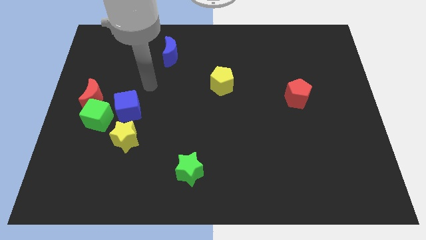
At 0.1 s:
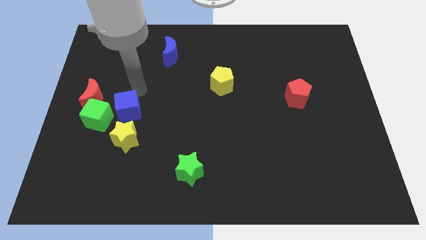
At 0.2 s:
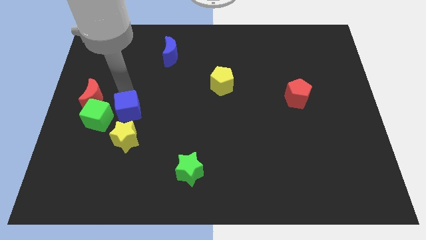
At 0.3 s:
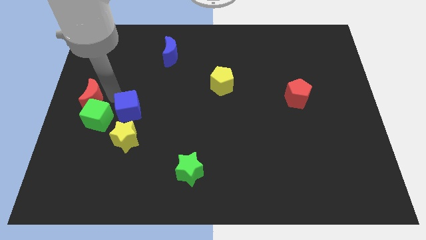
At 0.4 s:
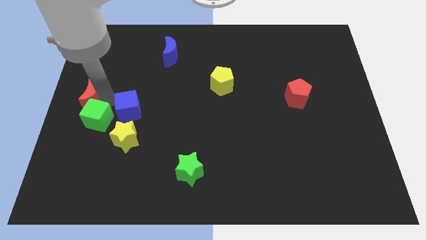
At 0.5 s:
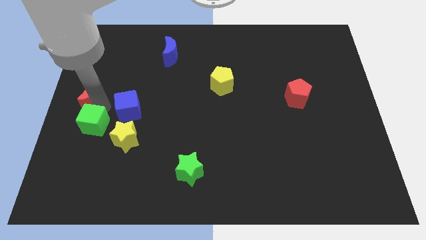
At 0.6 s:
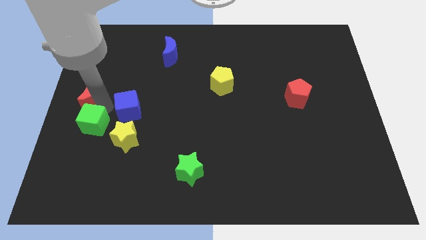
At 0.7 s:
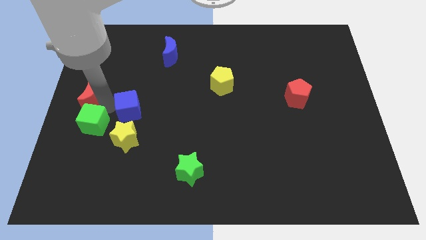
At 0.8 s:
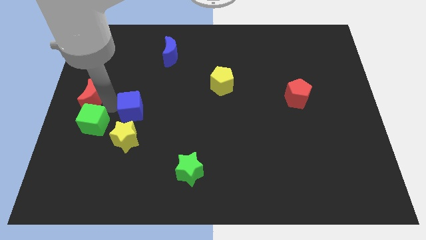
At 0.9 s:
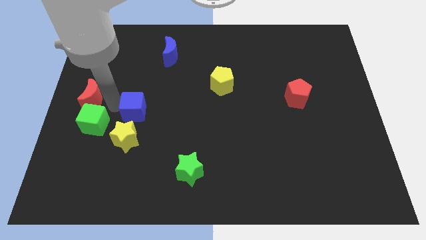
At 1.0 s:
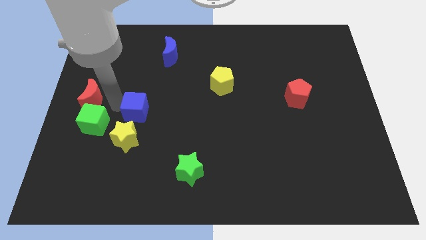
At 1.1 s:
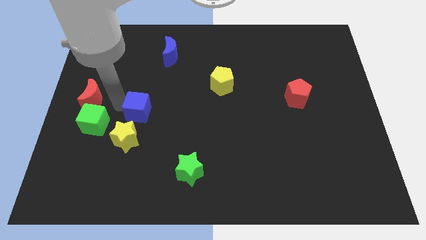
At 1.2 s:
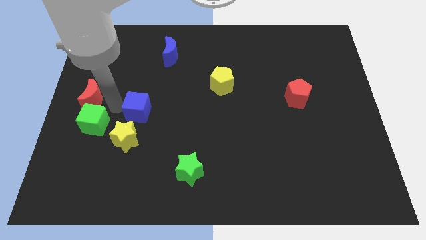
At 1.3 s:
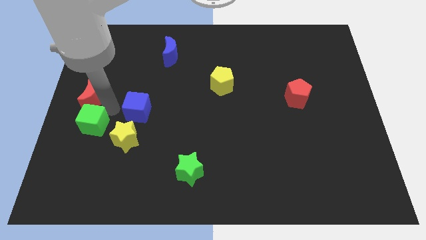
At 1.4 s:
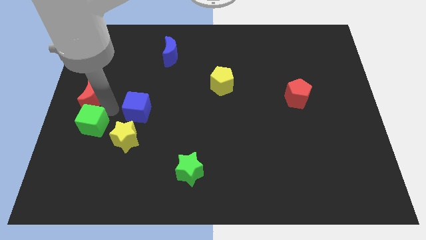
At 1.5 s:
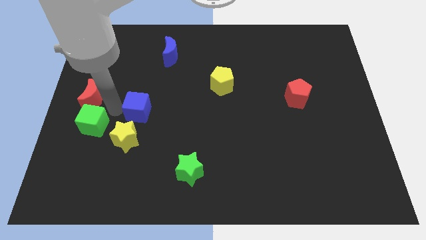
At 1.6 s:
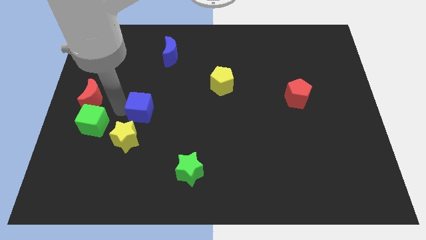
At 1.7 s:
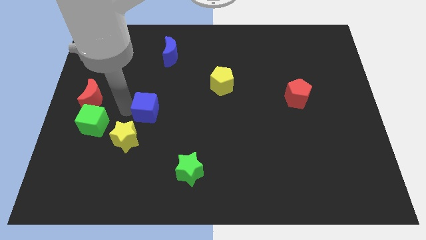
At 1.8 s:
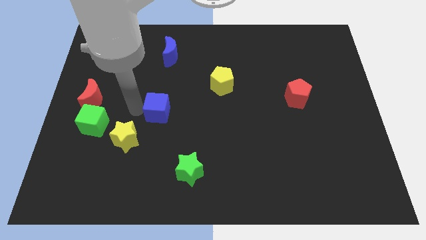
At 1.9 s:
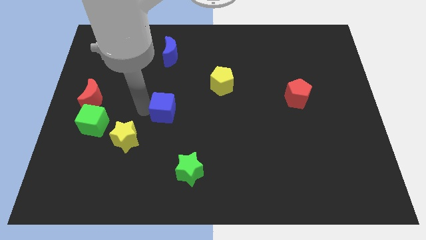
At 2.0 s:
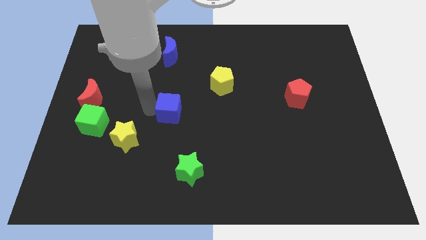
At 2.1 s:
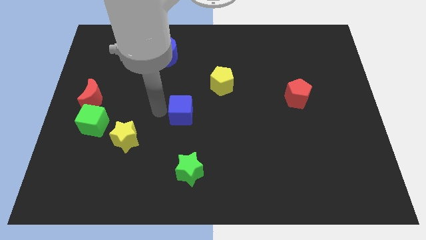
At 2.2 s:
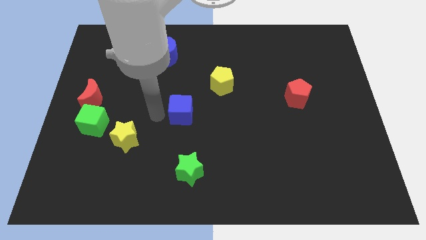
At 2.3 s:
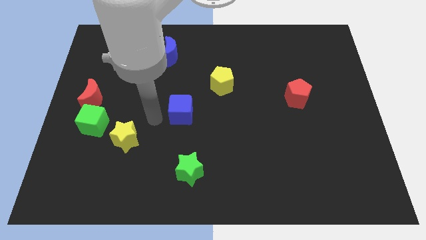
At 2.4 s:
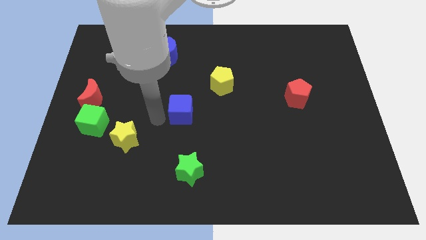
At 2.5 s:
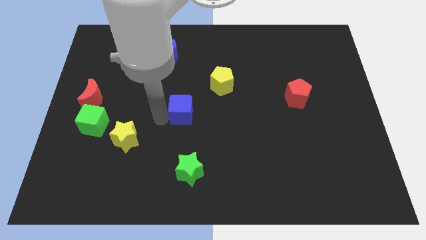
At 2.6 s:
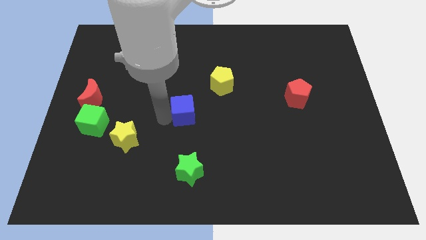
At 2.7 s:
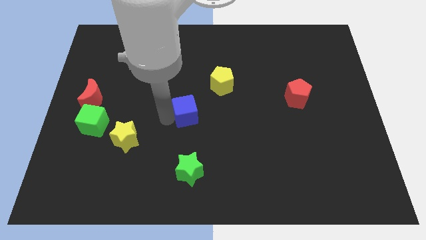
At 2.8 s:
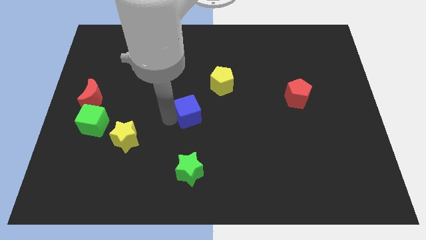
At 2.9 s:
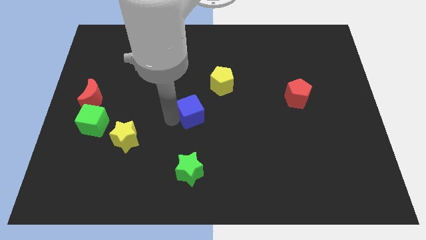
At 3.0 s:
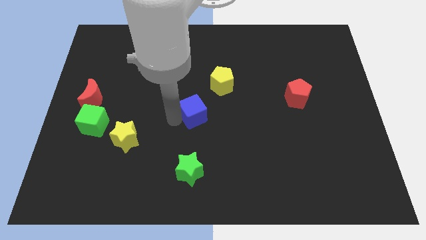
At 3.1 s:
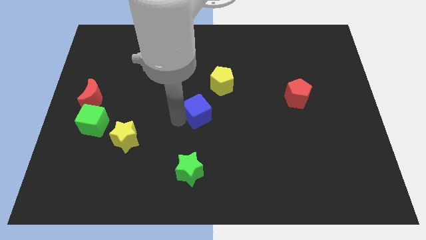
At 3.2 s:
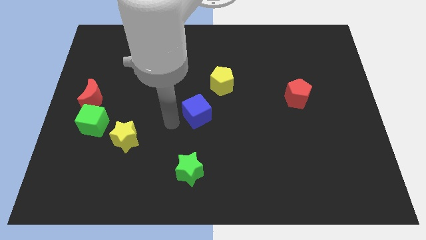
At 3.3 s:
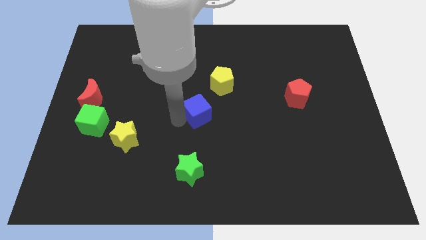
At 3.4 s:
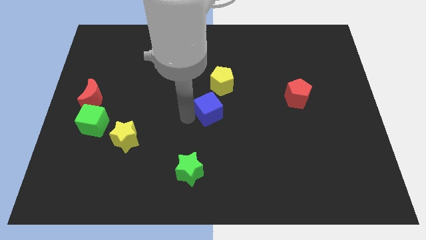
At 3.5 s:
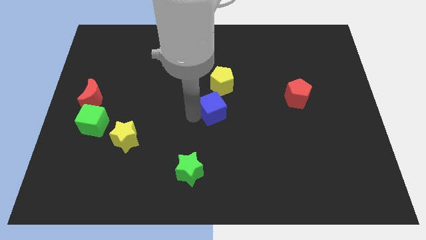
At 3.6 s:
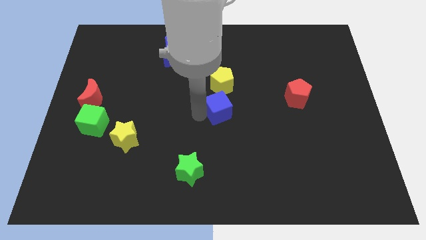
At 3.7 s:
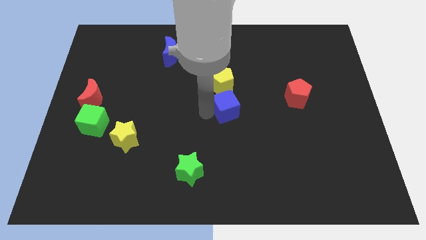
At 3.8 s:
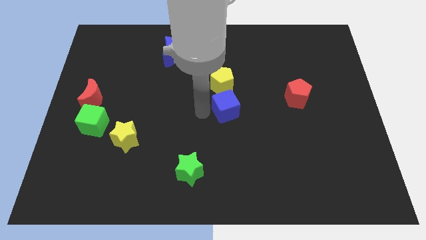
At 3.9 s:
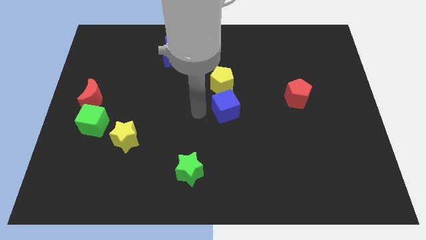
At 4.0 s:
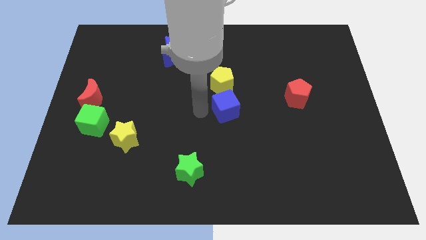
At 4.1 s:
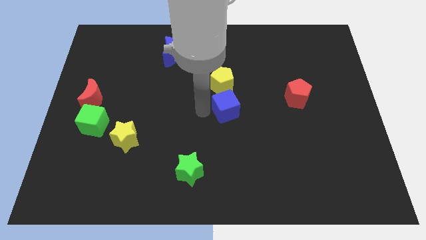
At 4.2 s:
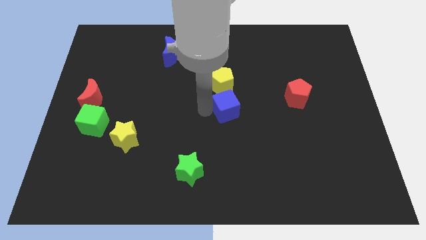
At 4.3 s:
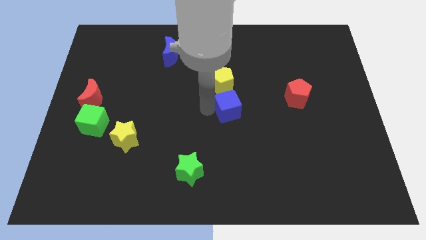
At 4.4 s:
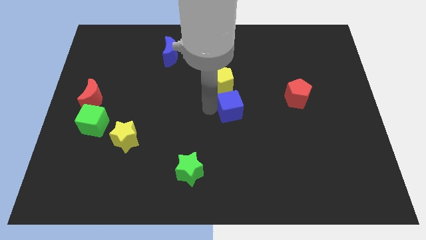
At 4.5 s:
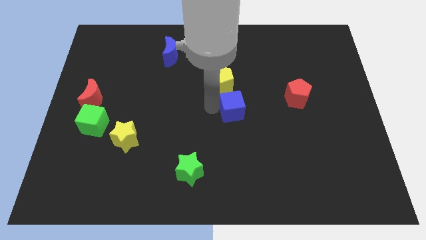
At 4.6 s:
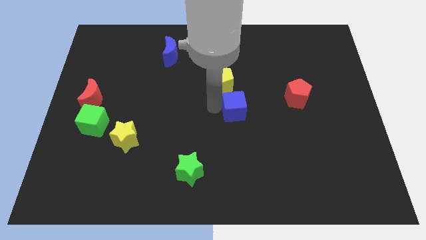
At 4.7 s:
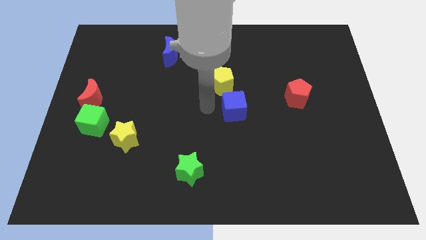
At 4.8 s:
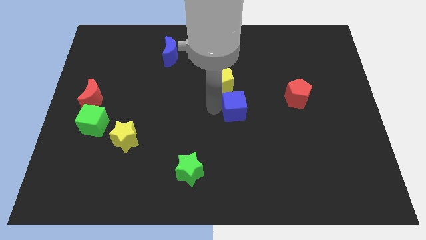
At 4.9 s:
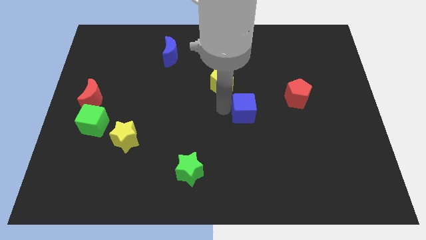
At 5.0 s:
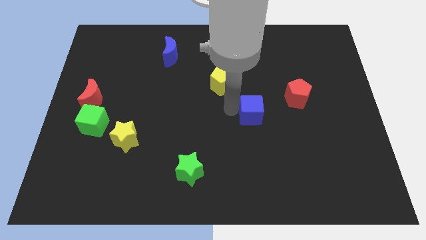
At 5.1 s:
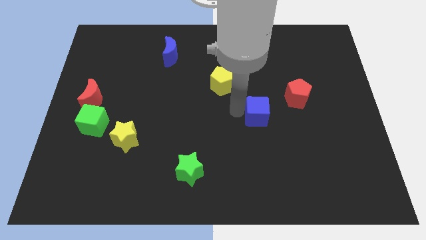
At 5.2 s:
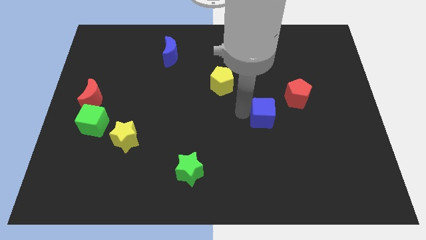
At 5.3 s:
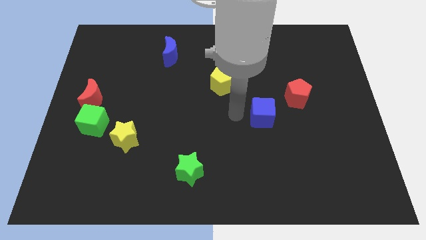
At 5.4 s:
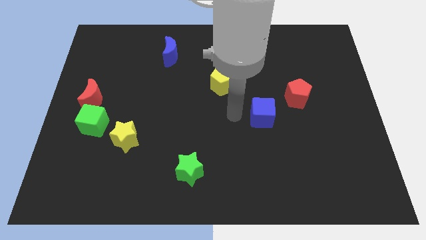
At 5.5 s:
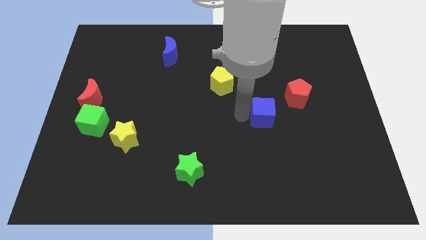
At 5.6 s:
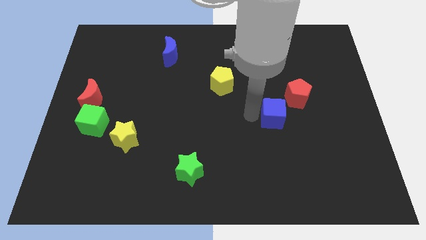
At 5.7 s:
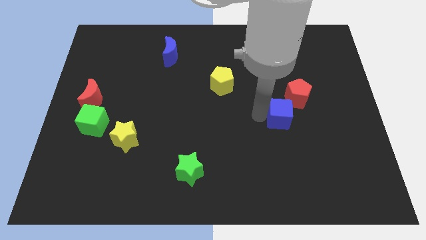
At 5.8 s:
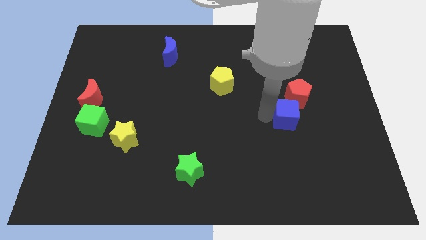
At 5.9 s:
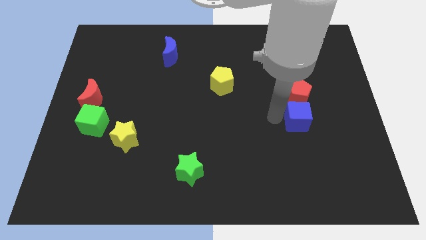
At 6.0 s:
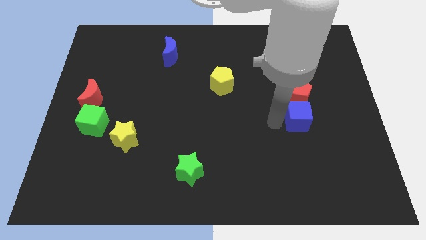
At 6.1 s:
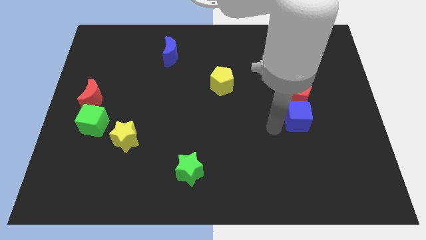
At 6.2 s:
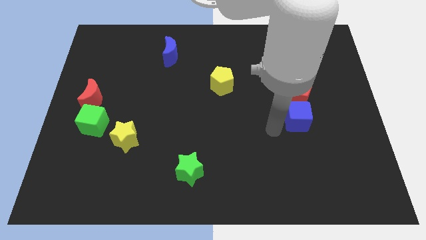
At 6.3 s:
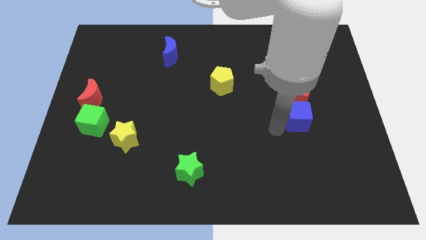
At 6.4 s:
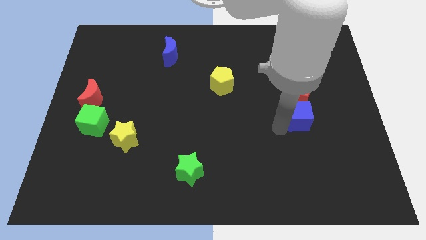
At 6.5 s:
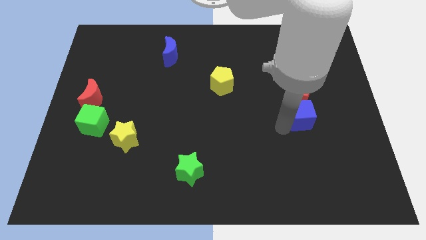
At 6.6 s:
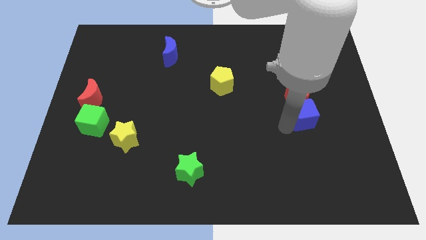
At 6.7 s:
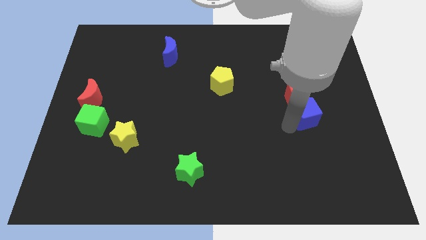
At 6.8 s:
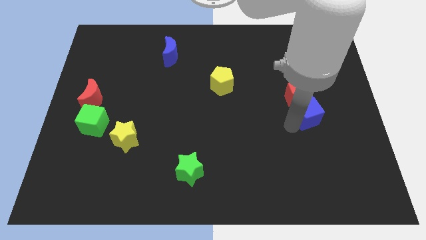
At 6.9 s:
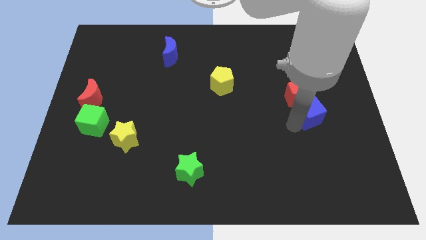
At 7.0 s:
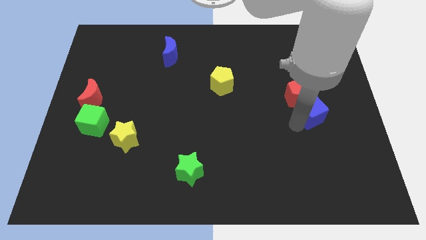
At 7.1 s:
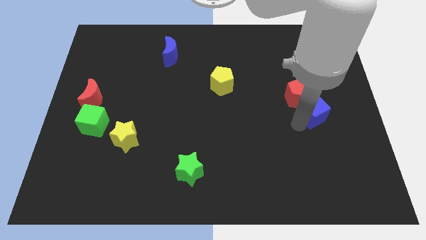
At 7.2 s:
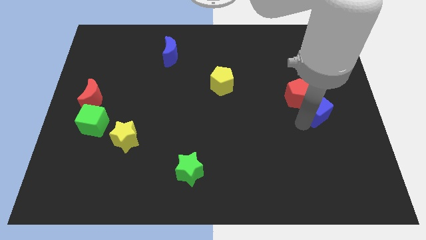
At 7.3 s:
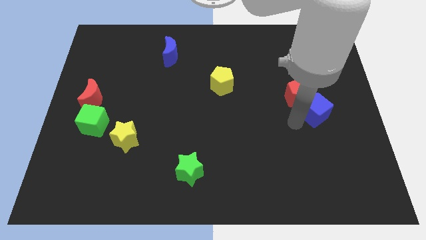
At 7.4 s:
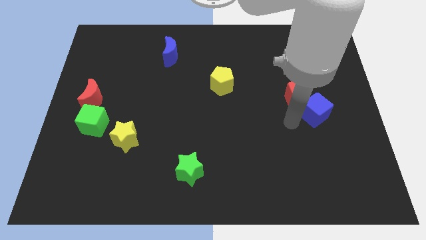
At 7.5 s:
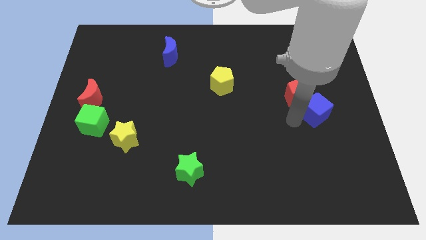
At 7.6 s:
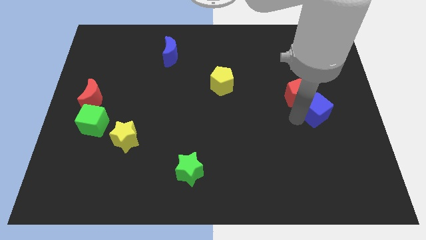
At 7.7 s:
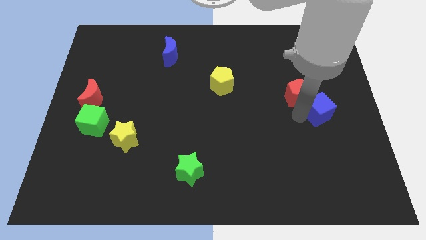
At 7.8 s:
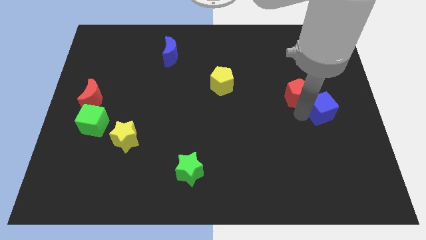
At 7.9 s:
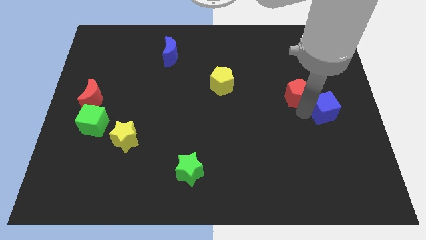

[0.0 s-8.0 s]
slide the blue cube to the right side

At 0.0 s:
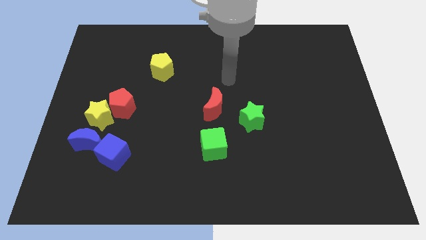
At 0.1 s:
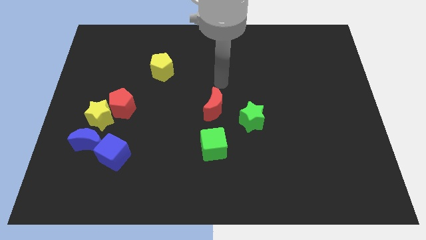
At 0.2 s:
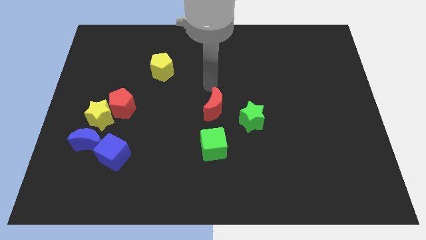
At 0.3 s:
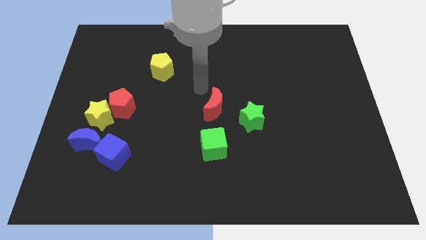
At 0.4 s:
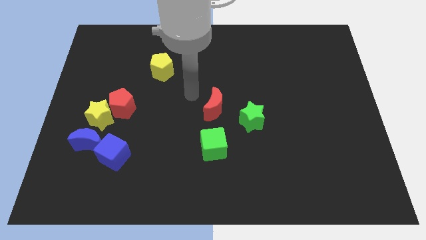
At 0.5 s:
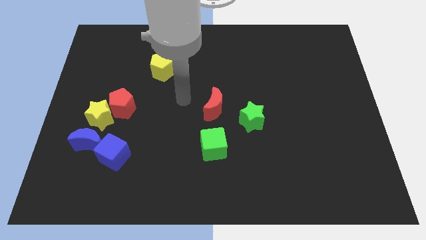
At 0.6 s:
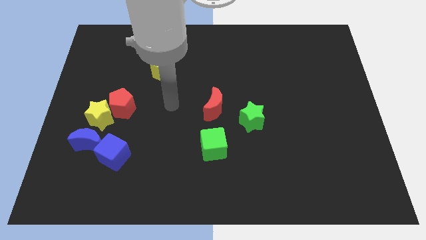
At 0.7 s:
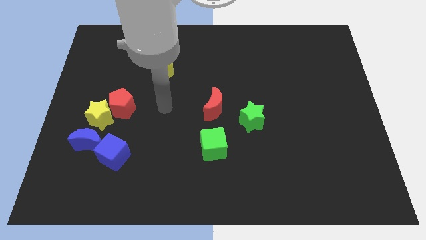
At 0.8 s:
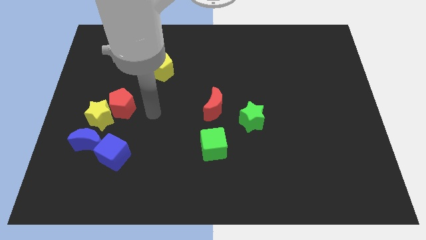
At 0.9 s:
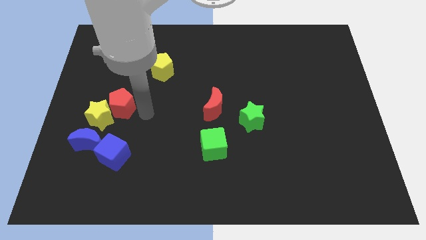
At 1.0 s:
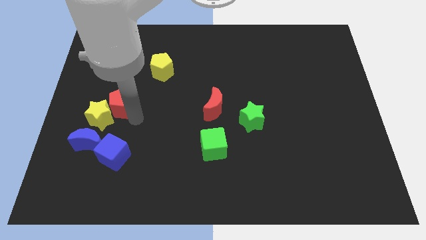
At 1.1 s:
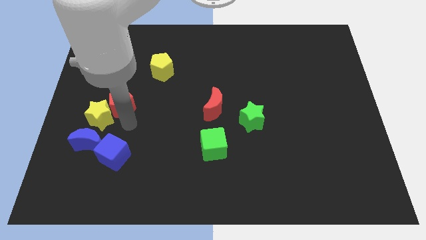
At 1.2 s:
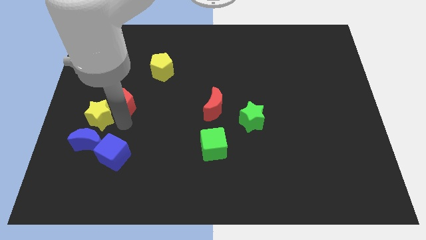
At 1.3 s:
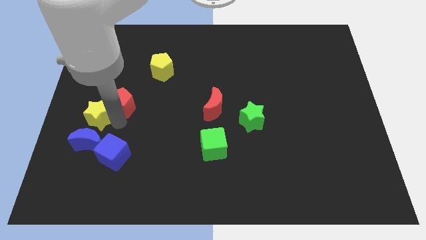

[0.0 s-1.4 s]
put the yellow star to the center left
